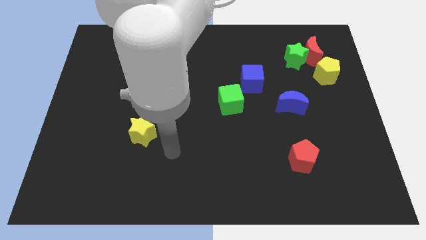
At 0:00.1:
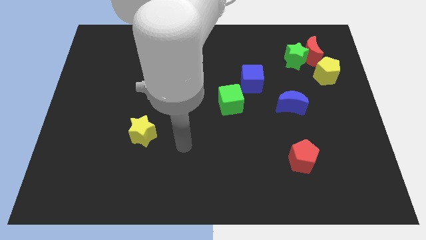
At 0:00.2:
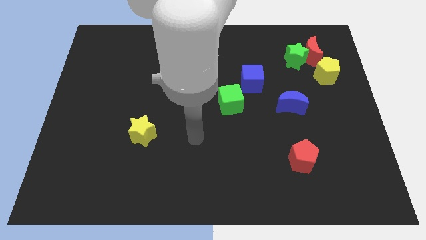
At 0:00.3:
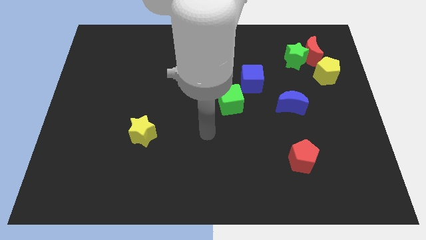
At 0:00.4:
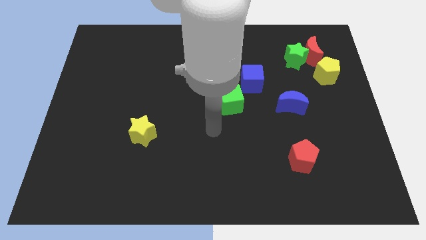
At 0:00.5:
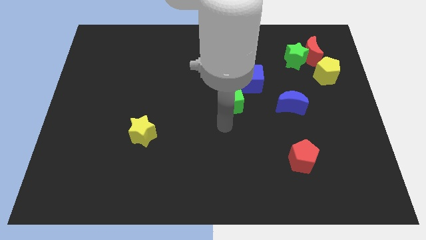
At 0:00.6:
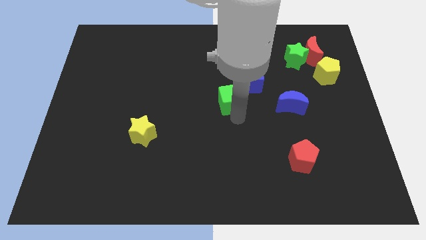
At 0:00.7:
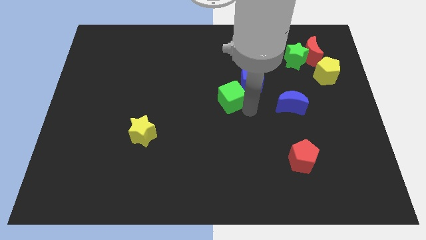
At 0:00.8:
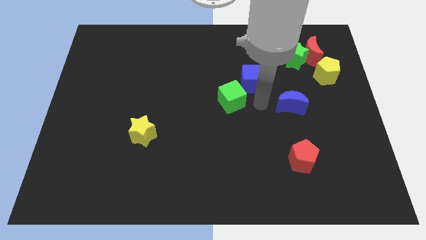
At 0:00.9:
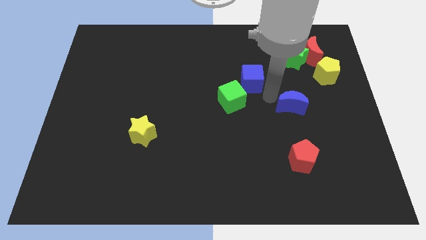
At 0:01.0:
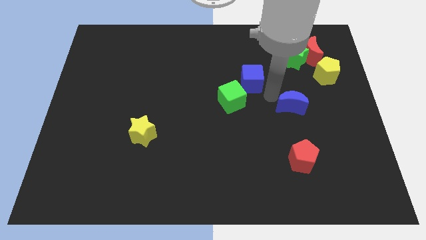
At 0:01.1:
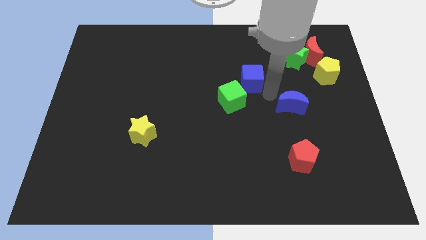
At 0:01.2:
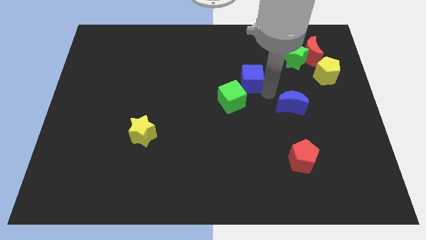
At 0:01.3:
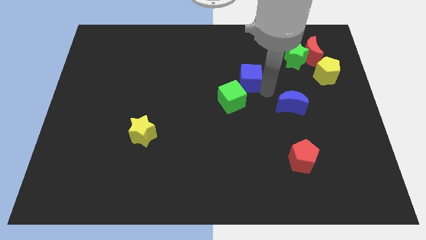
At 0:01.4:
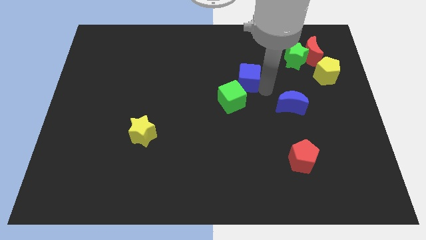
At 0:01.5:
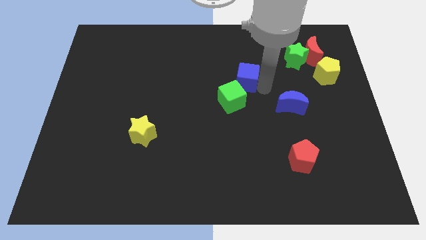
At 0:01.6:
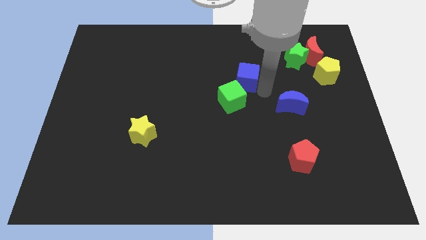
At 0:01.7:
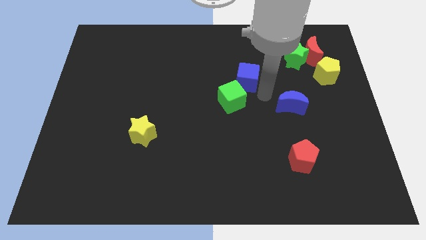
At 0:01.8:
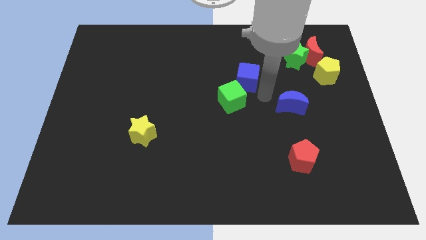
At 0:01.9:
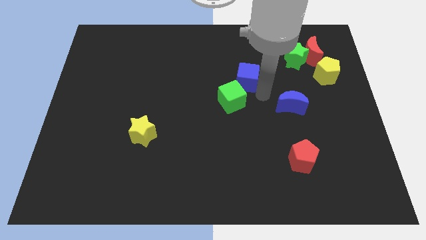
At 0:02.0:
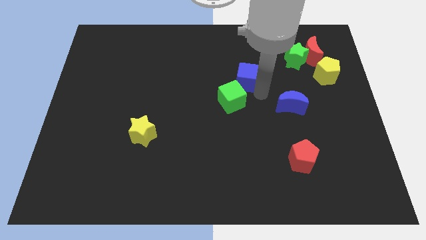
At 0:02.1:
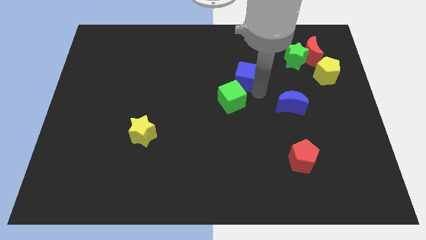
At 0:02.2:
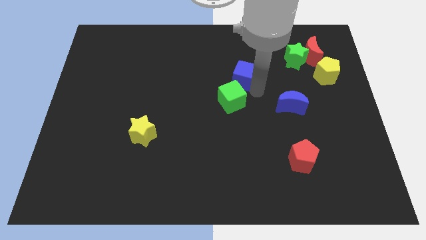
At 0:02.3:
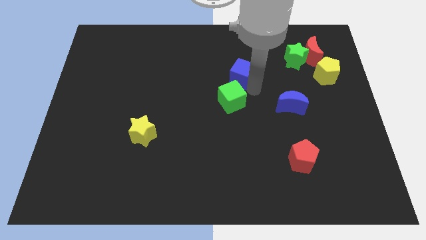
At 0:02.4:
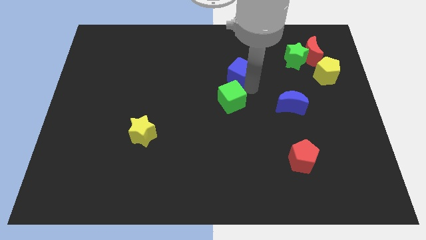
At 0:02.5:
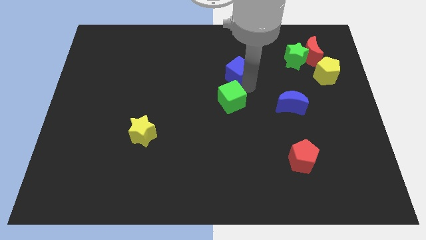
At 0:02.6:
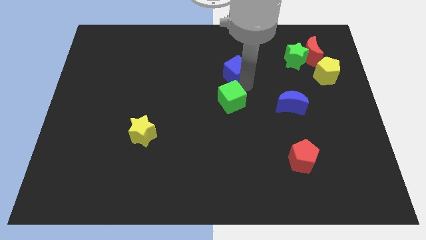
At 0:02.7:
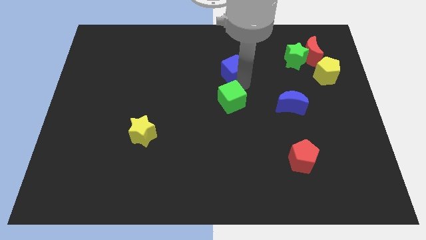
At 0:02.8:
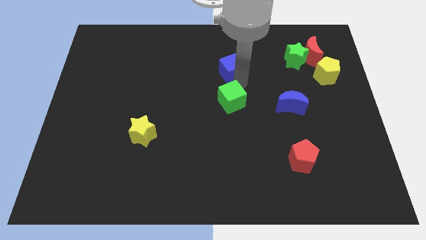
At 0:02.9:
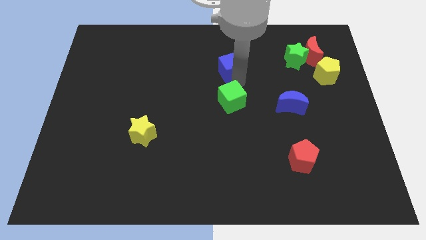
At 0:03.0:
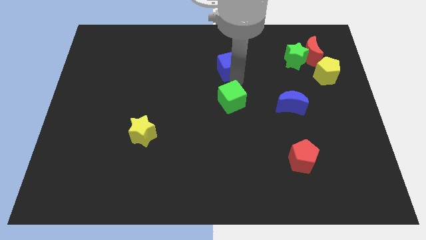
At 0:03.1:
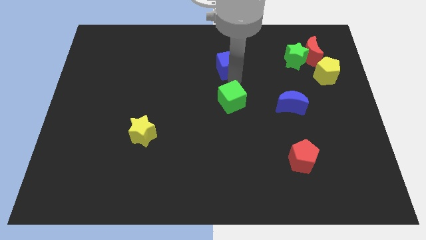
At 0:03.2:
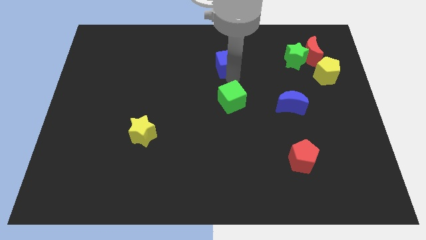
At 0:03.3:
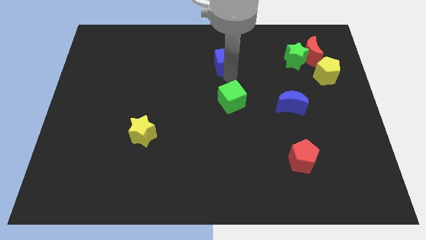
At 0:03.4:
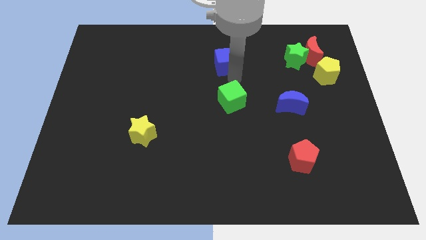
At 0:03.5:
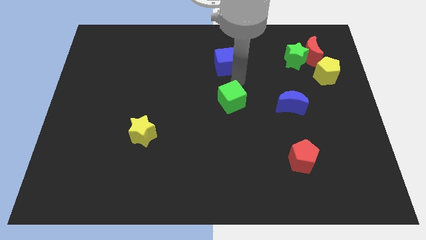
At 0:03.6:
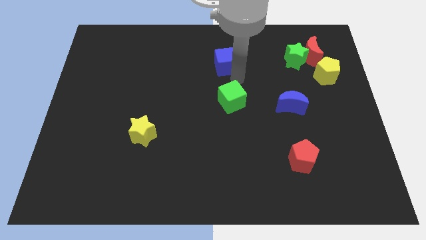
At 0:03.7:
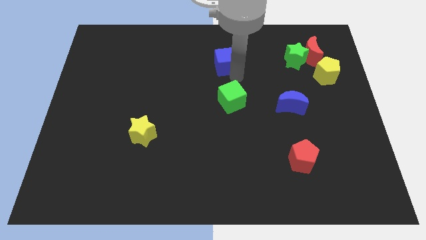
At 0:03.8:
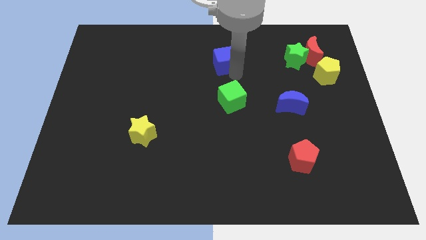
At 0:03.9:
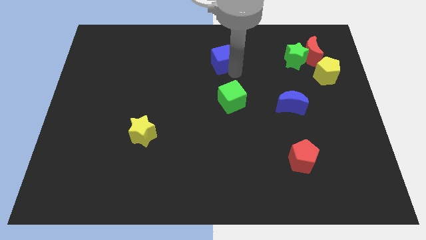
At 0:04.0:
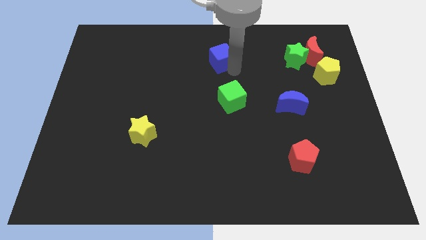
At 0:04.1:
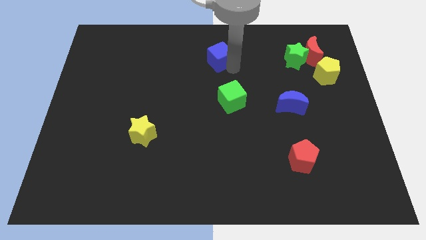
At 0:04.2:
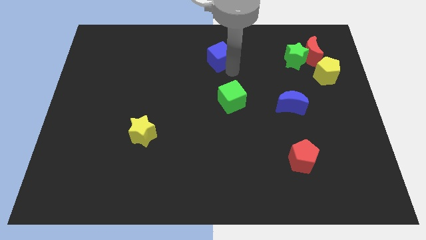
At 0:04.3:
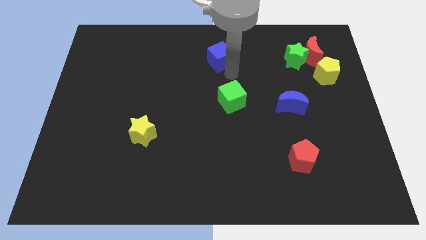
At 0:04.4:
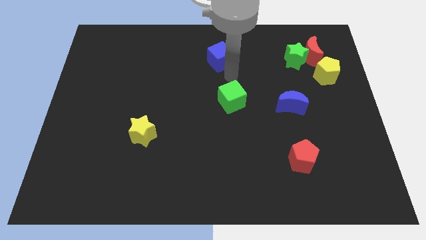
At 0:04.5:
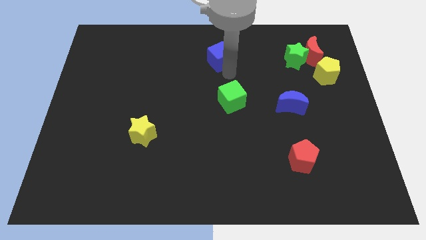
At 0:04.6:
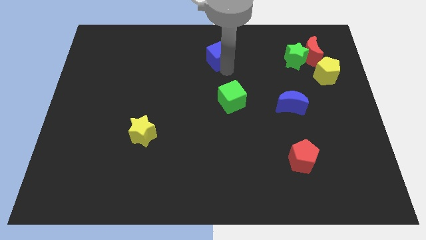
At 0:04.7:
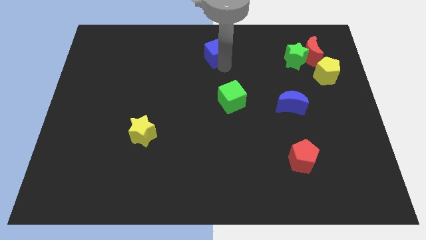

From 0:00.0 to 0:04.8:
slide the blue cube to the top side

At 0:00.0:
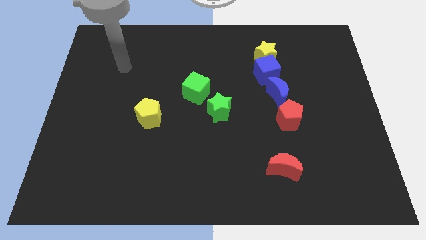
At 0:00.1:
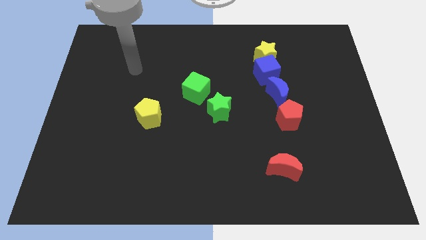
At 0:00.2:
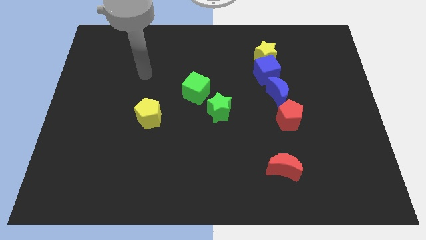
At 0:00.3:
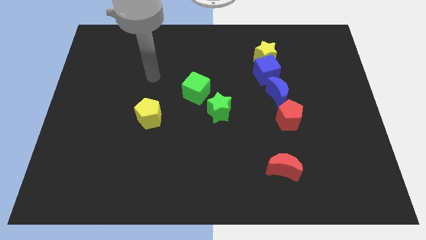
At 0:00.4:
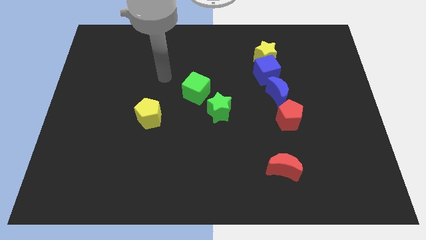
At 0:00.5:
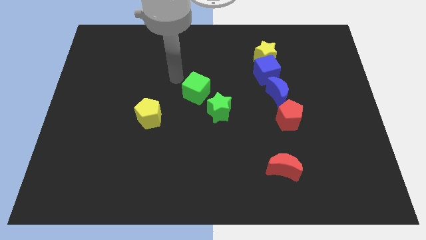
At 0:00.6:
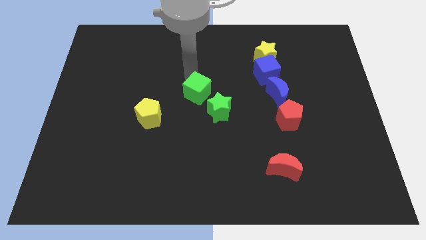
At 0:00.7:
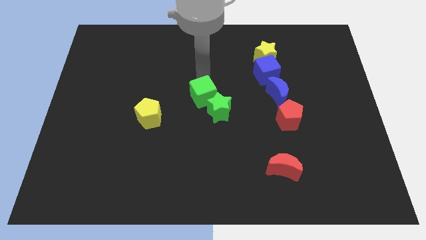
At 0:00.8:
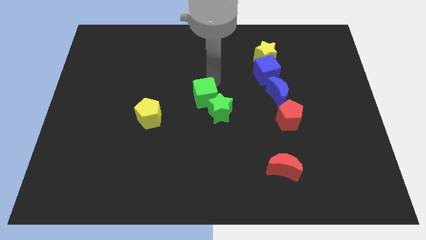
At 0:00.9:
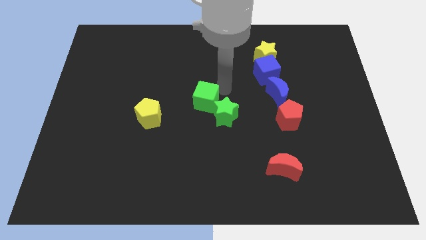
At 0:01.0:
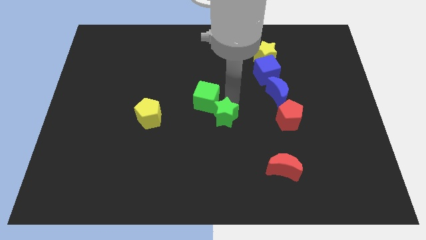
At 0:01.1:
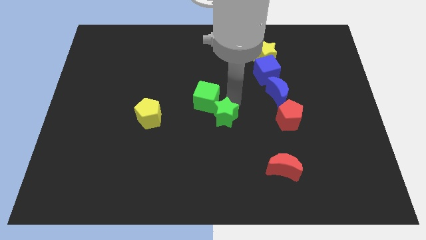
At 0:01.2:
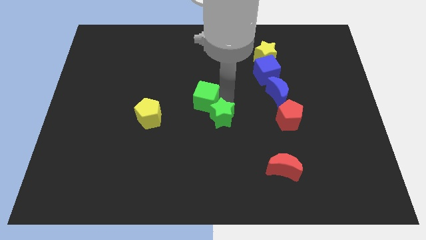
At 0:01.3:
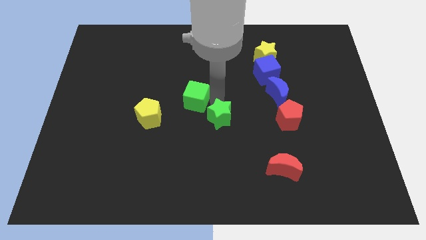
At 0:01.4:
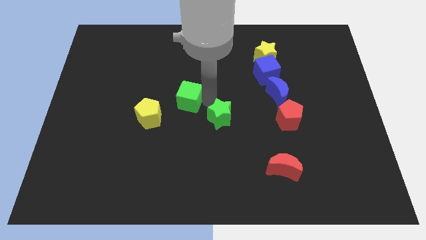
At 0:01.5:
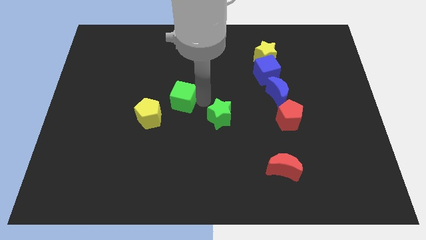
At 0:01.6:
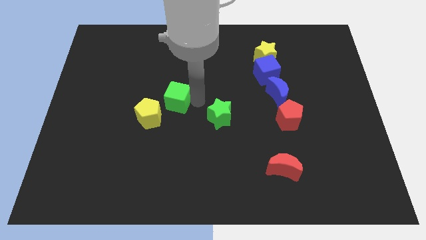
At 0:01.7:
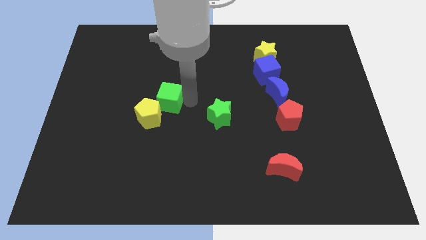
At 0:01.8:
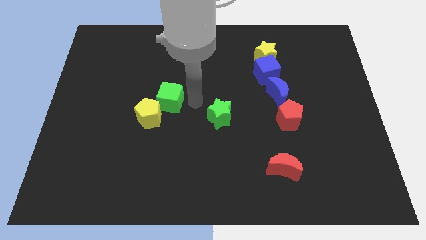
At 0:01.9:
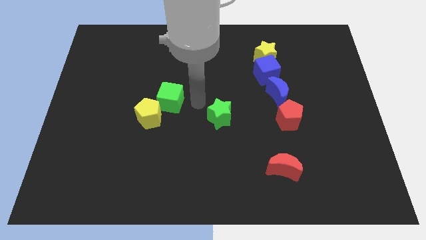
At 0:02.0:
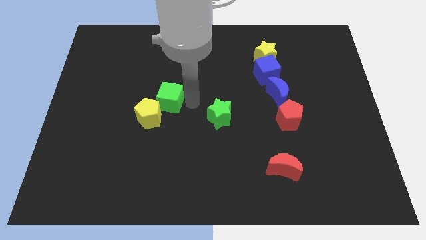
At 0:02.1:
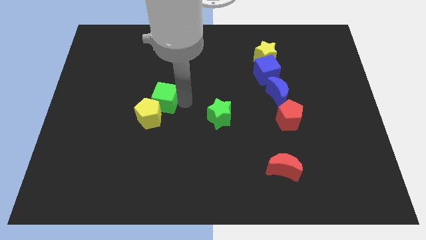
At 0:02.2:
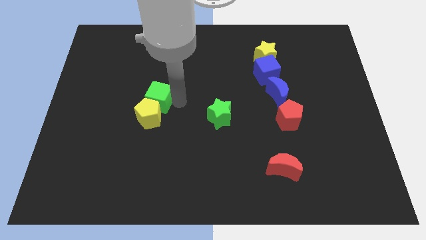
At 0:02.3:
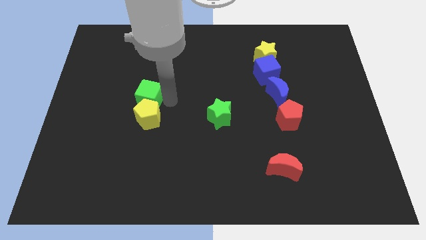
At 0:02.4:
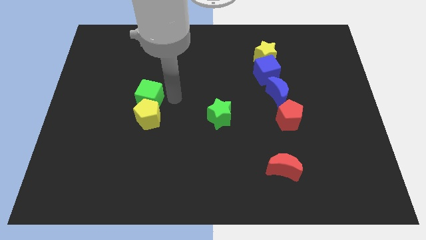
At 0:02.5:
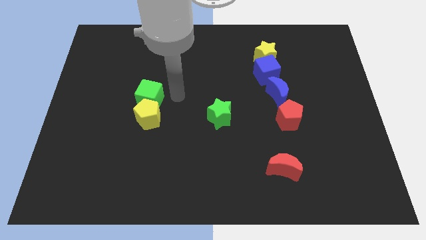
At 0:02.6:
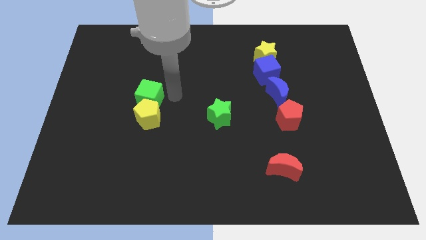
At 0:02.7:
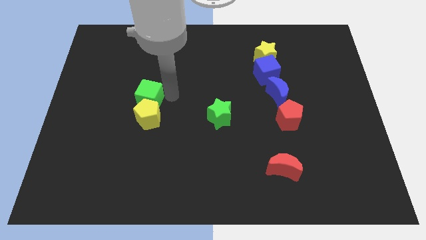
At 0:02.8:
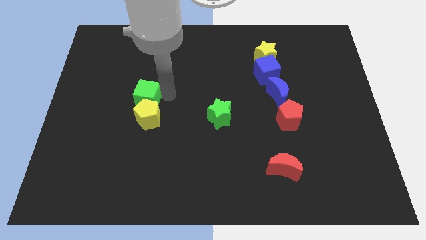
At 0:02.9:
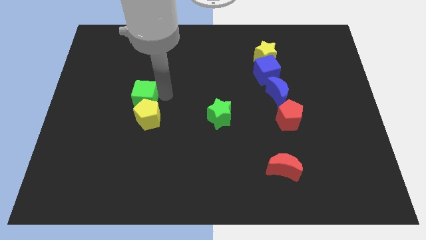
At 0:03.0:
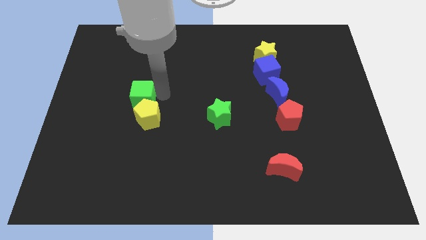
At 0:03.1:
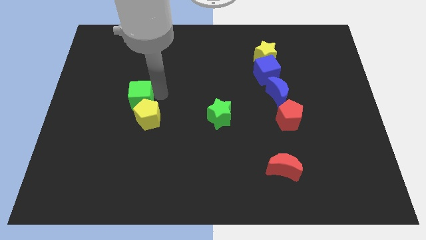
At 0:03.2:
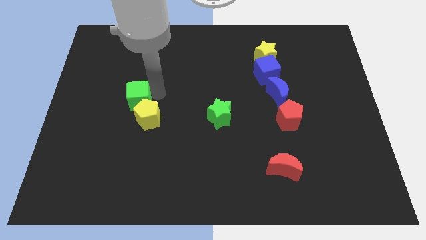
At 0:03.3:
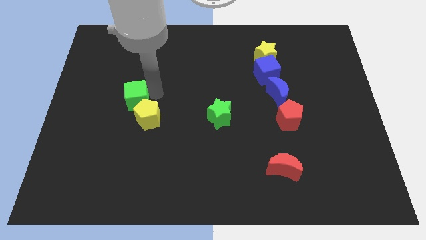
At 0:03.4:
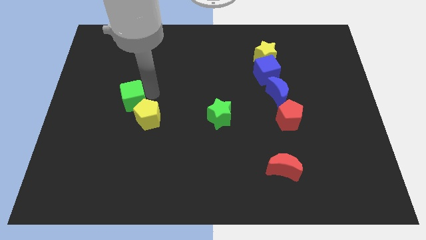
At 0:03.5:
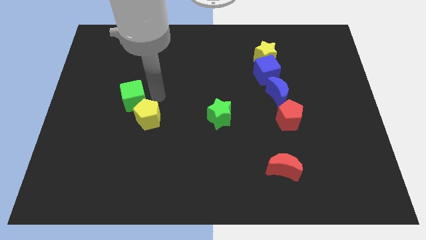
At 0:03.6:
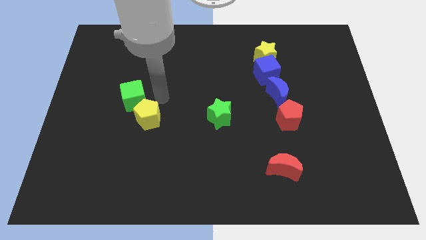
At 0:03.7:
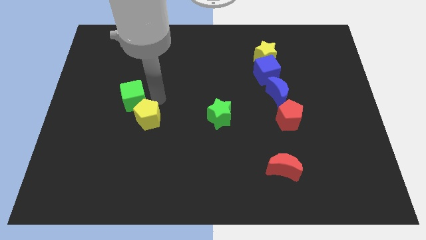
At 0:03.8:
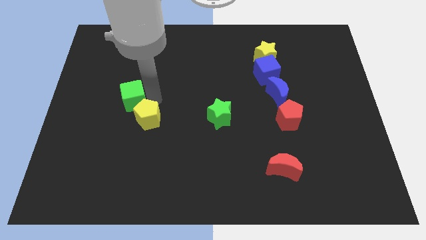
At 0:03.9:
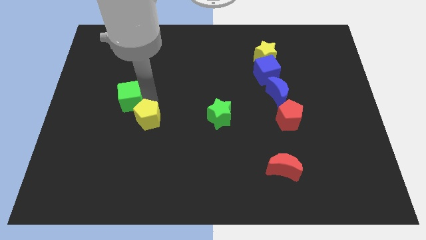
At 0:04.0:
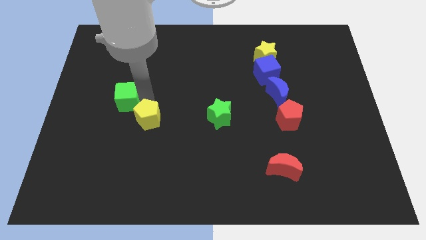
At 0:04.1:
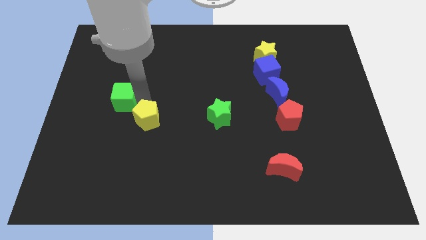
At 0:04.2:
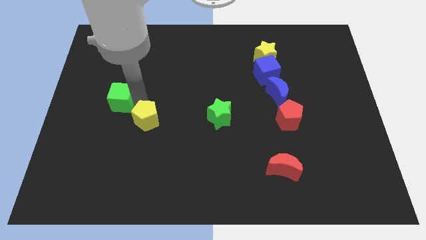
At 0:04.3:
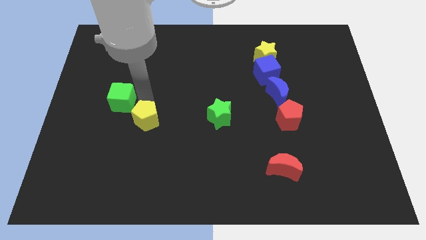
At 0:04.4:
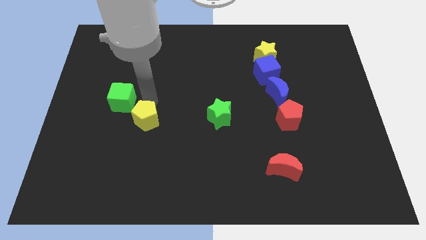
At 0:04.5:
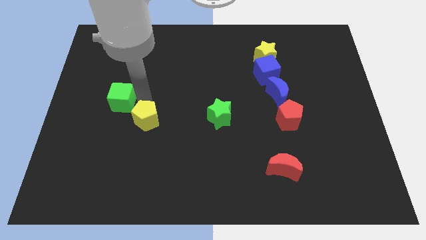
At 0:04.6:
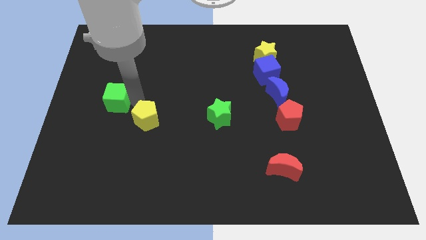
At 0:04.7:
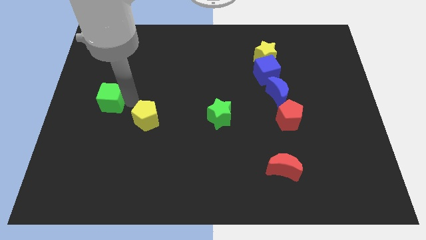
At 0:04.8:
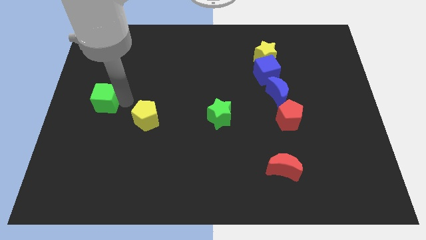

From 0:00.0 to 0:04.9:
move the green cube to the center left
